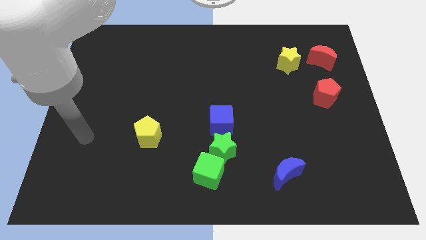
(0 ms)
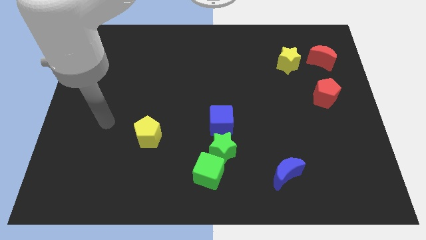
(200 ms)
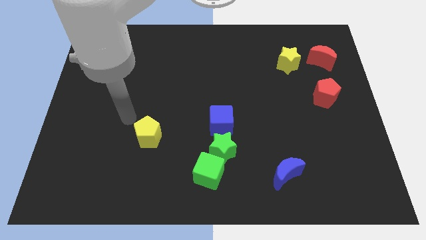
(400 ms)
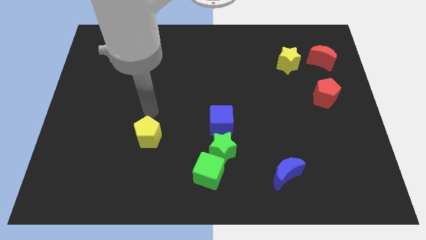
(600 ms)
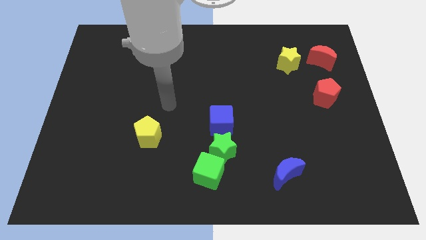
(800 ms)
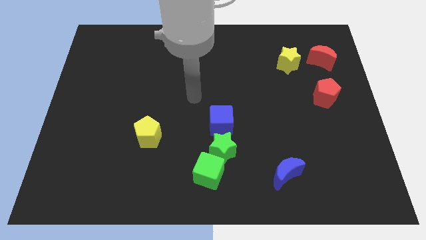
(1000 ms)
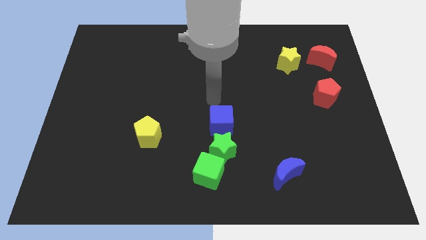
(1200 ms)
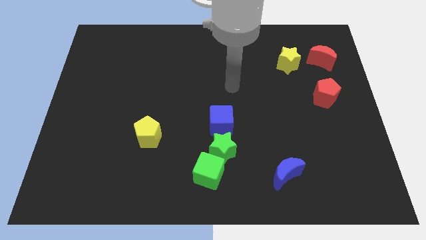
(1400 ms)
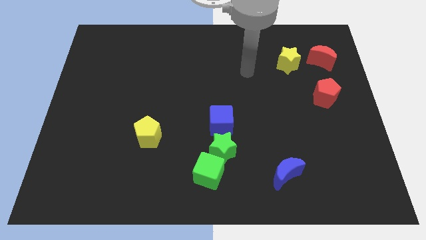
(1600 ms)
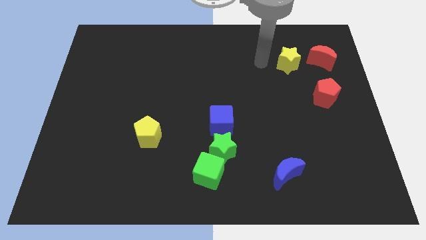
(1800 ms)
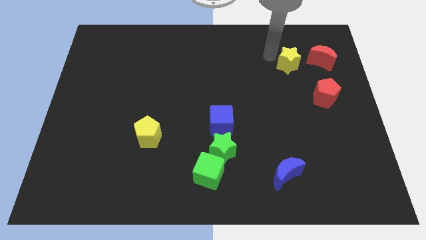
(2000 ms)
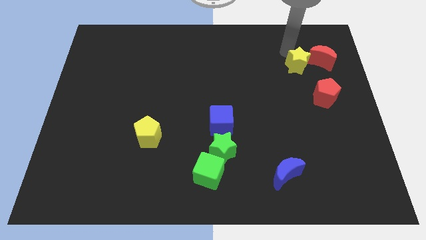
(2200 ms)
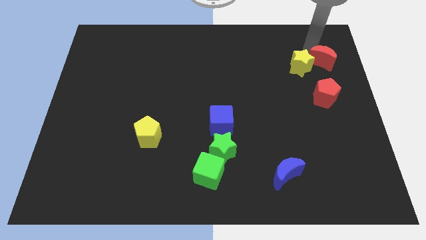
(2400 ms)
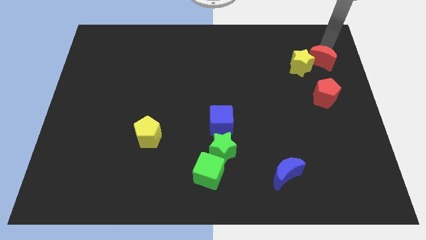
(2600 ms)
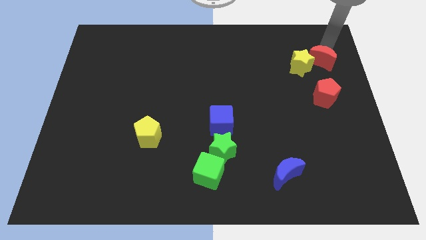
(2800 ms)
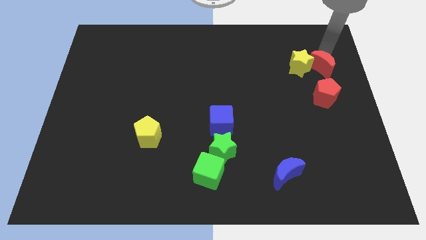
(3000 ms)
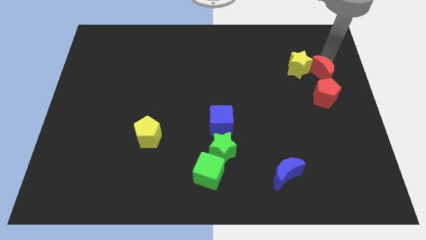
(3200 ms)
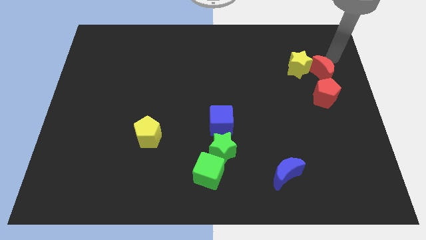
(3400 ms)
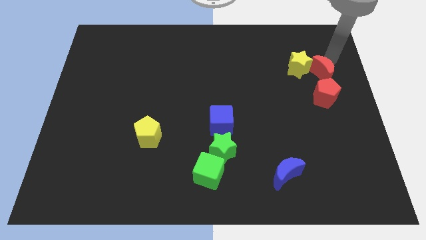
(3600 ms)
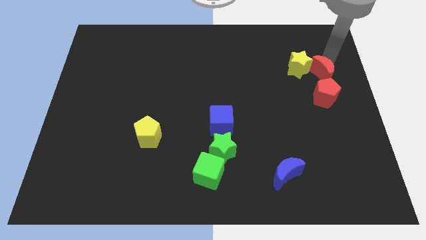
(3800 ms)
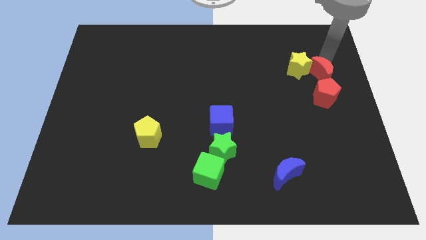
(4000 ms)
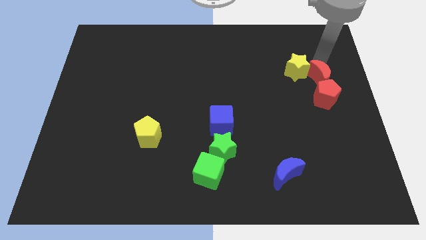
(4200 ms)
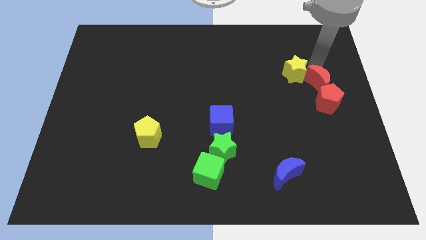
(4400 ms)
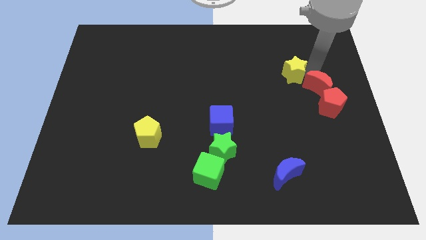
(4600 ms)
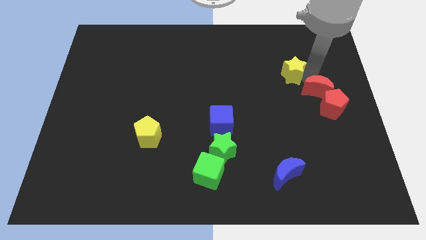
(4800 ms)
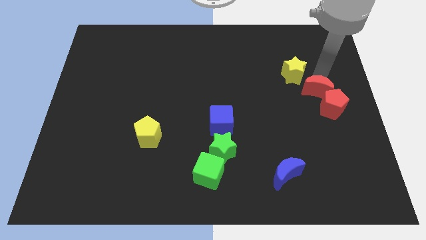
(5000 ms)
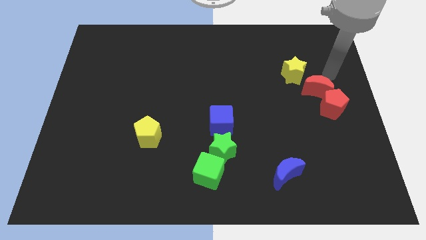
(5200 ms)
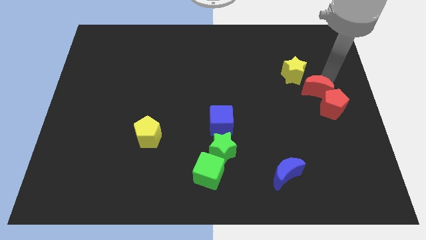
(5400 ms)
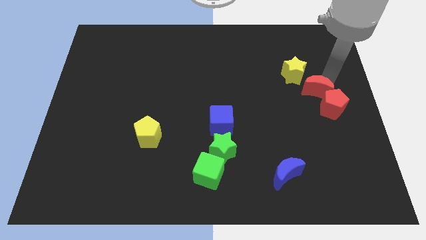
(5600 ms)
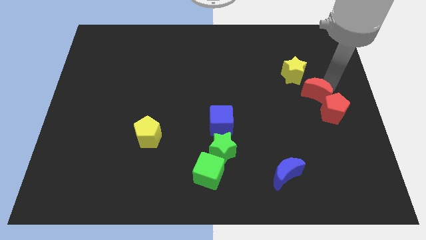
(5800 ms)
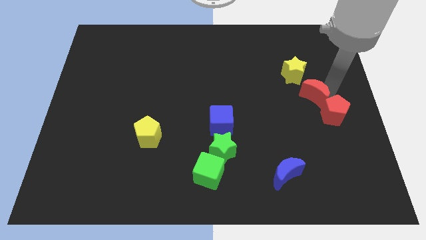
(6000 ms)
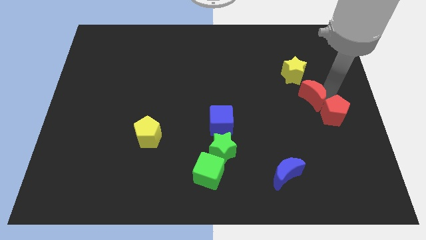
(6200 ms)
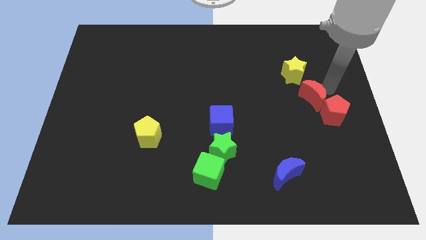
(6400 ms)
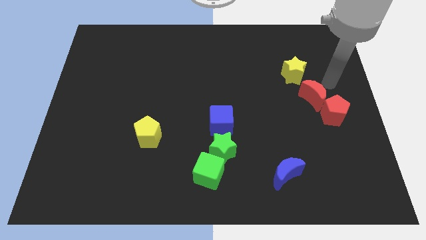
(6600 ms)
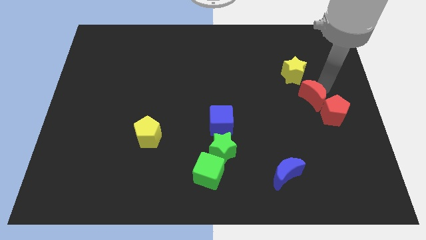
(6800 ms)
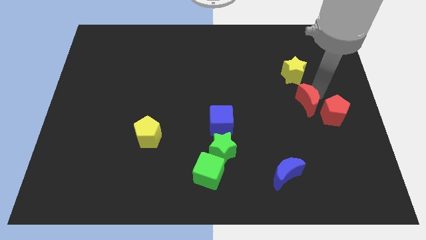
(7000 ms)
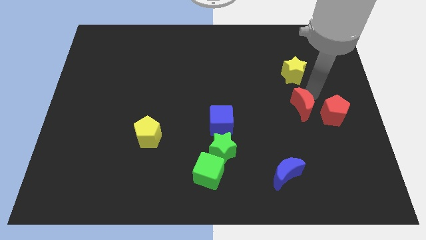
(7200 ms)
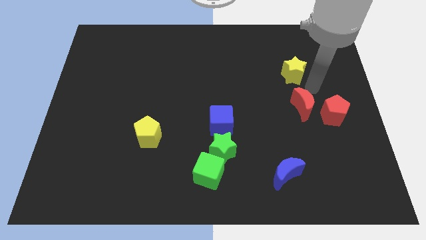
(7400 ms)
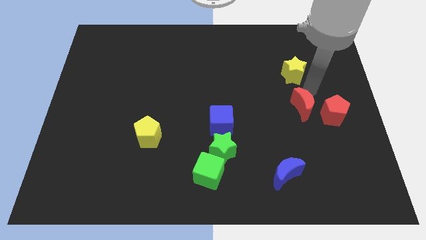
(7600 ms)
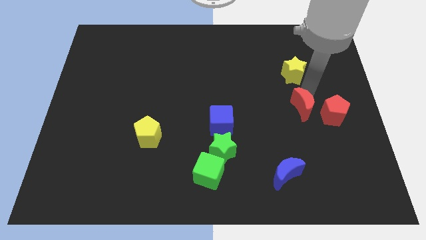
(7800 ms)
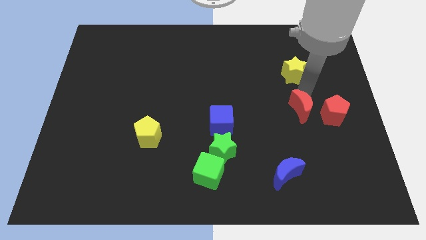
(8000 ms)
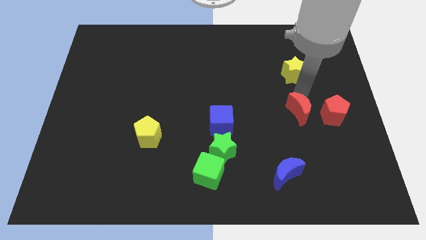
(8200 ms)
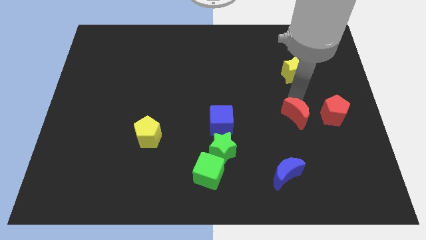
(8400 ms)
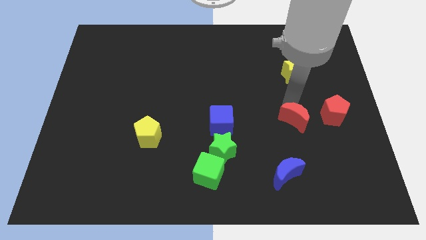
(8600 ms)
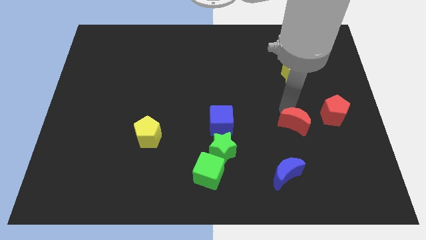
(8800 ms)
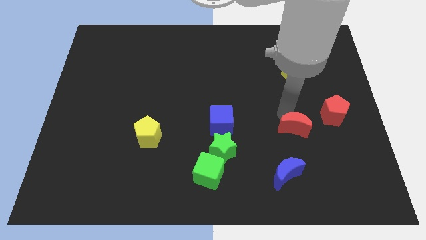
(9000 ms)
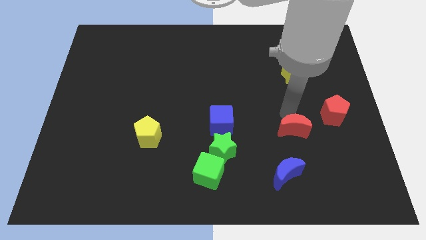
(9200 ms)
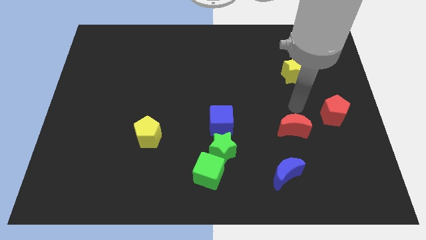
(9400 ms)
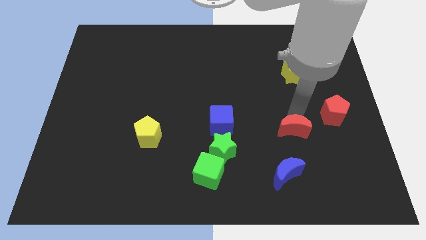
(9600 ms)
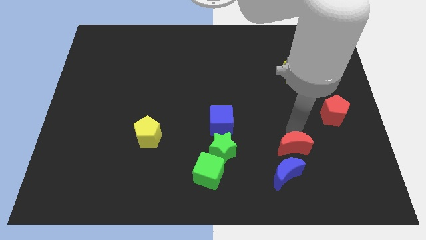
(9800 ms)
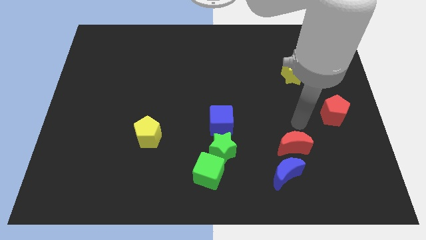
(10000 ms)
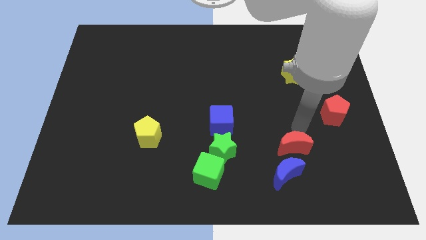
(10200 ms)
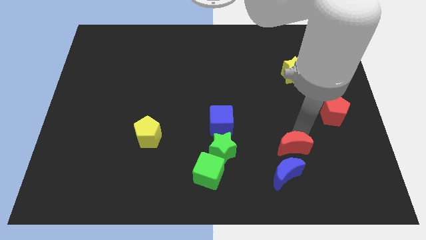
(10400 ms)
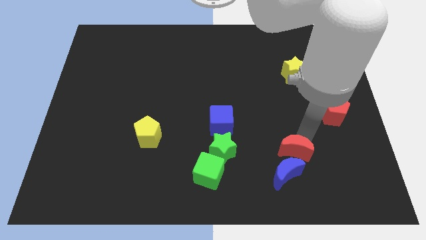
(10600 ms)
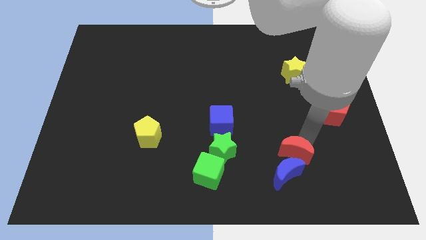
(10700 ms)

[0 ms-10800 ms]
push the red moon next to the blue moon

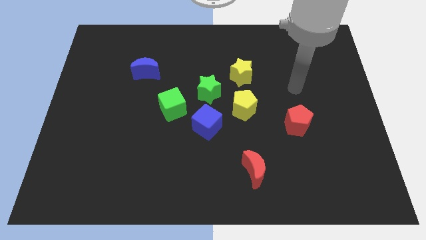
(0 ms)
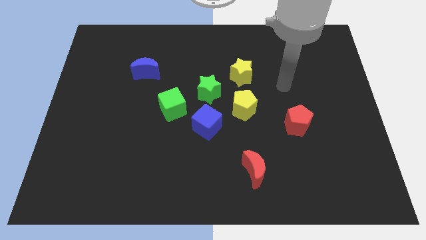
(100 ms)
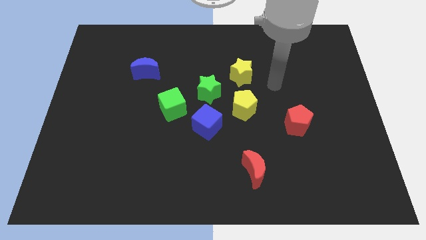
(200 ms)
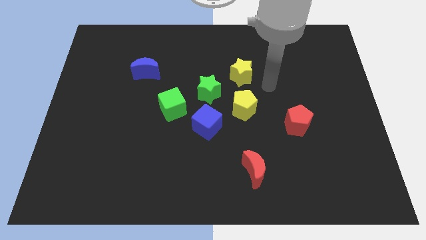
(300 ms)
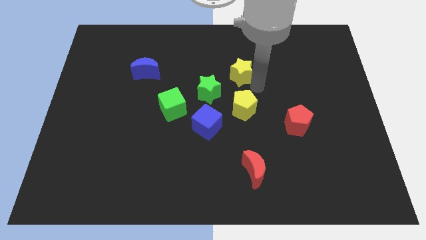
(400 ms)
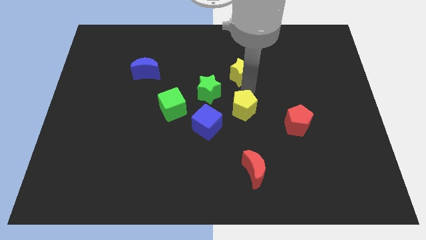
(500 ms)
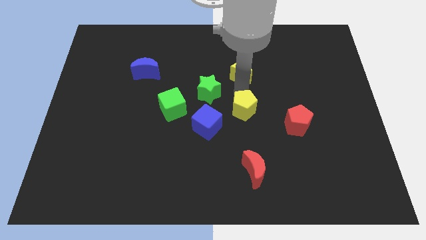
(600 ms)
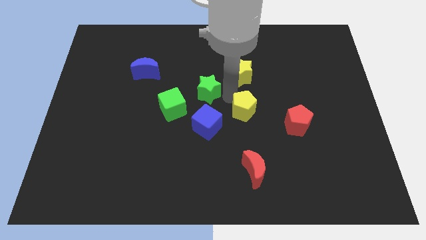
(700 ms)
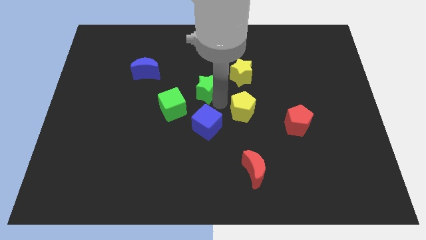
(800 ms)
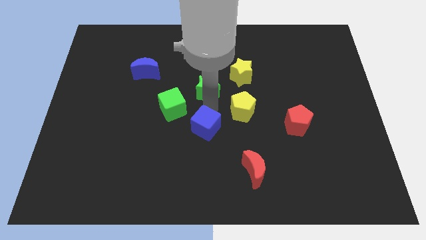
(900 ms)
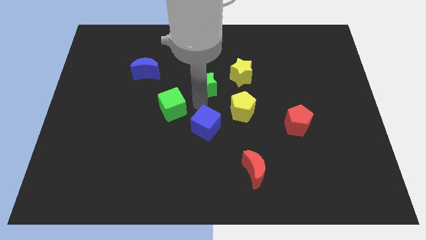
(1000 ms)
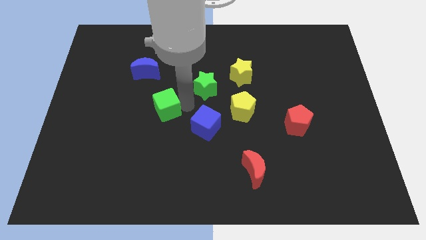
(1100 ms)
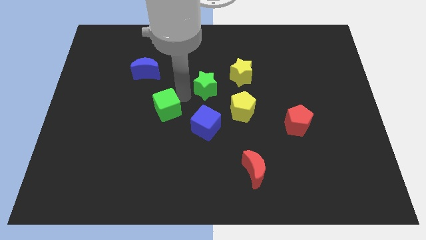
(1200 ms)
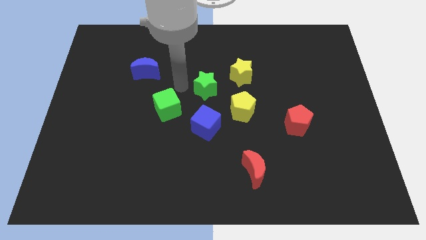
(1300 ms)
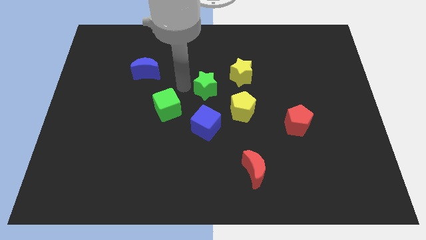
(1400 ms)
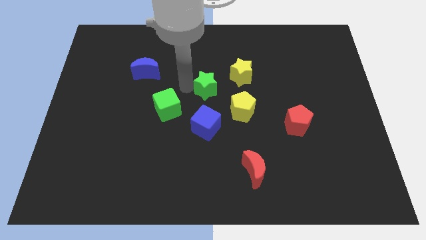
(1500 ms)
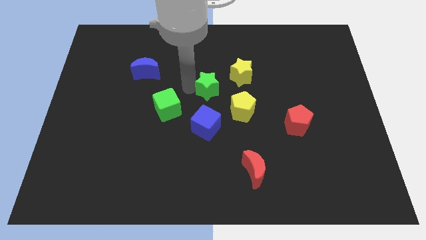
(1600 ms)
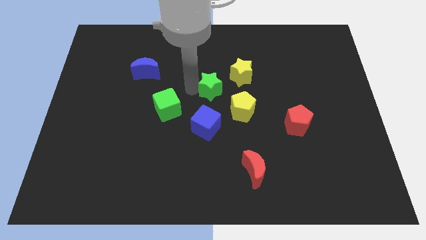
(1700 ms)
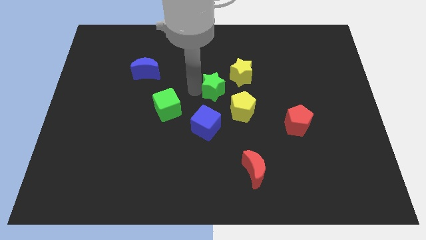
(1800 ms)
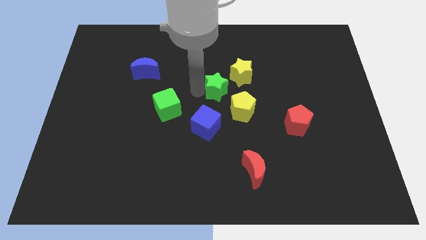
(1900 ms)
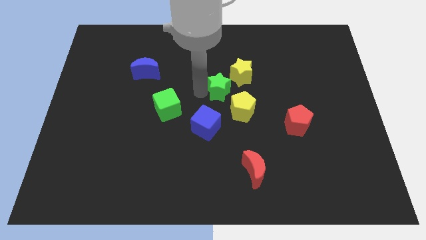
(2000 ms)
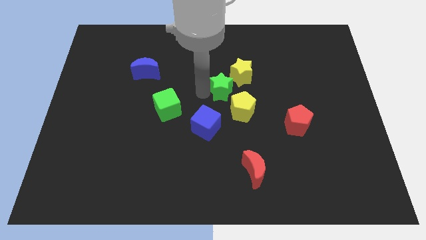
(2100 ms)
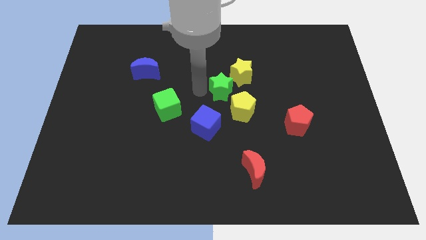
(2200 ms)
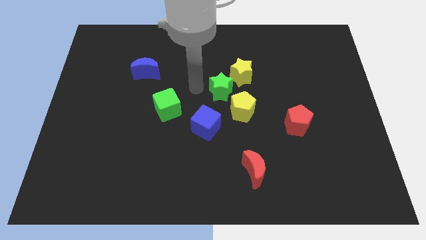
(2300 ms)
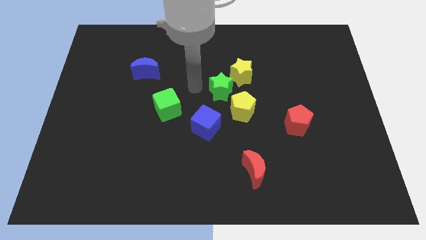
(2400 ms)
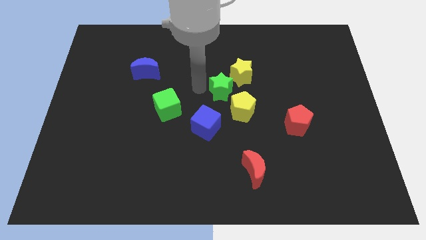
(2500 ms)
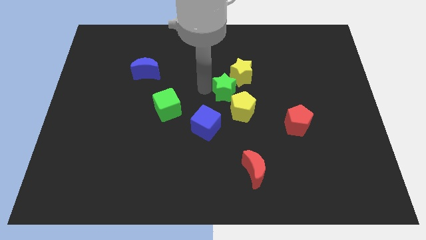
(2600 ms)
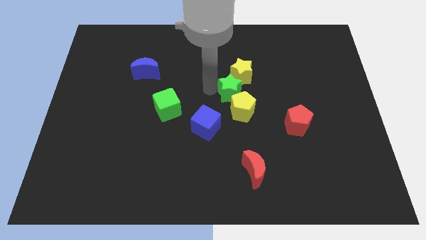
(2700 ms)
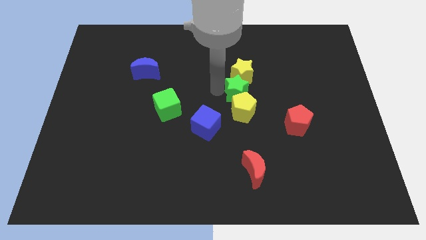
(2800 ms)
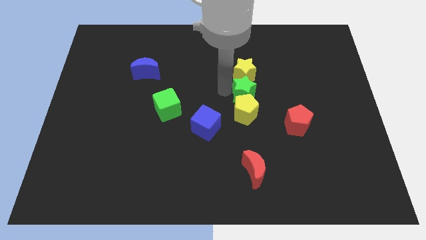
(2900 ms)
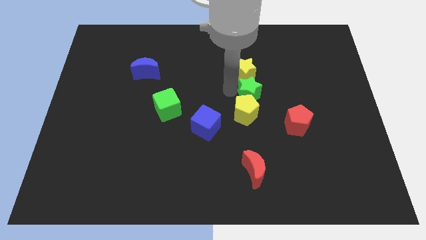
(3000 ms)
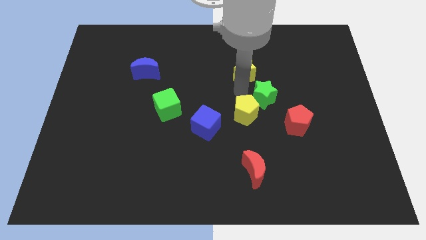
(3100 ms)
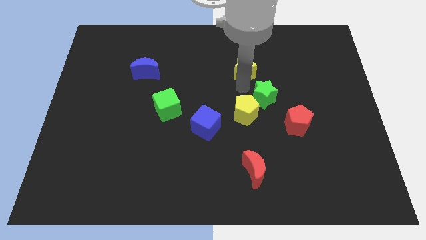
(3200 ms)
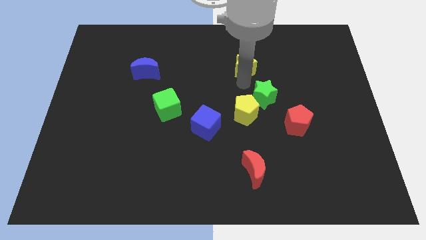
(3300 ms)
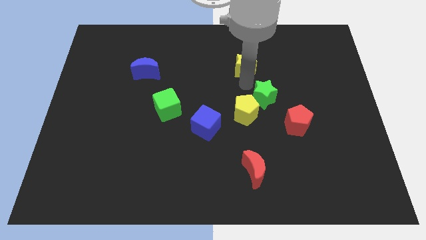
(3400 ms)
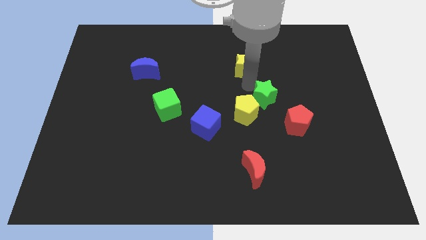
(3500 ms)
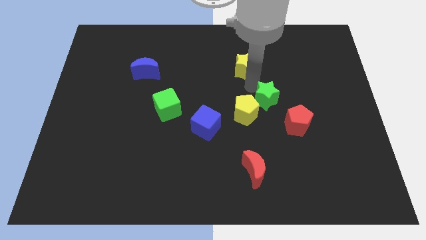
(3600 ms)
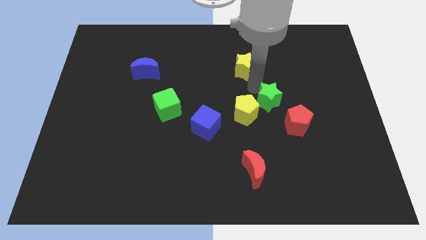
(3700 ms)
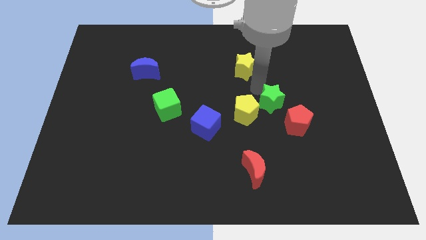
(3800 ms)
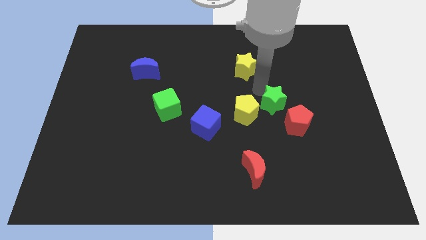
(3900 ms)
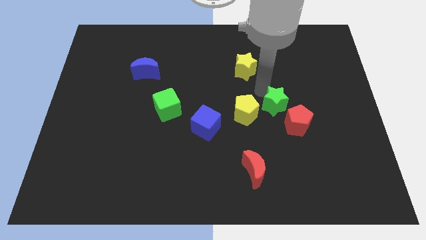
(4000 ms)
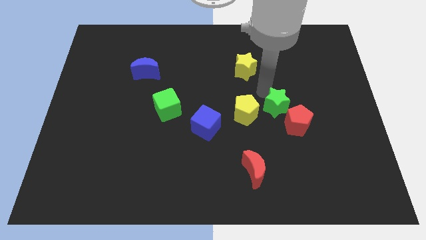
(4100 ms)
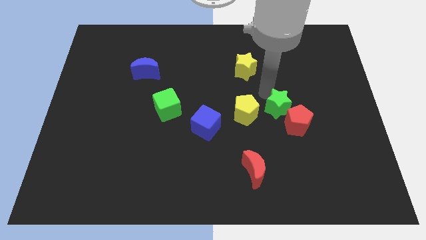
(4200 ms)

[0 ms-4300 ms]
slide the green star close to the red pentagon
